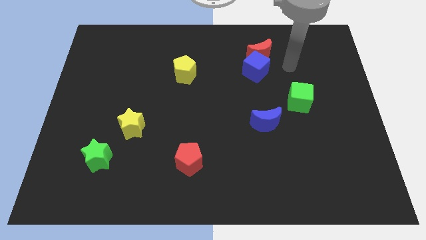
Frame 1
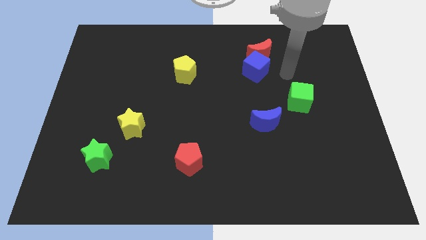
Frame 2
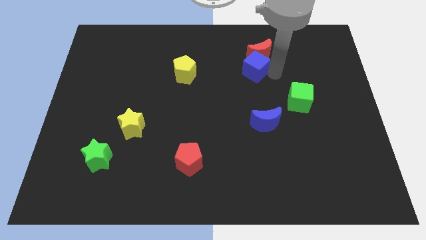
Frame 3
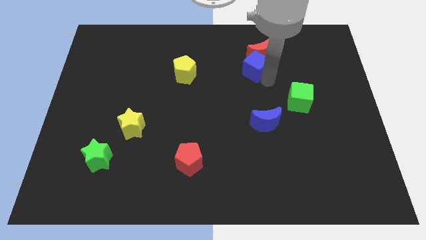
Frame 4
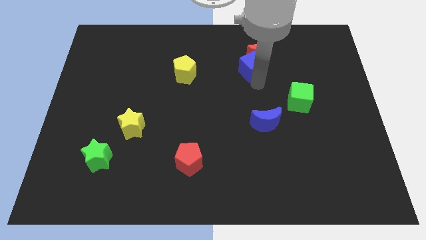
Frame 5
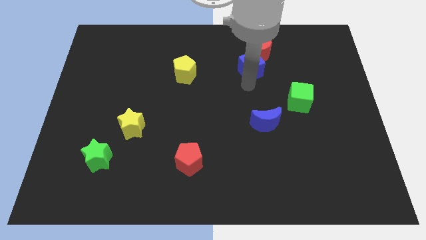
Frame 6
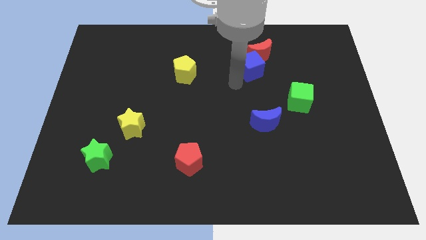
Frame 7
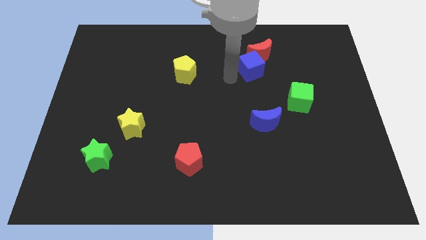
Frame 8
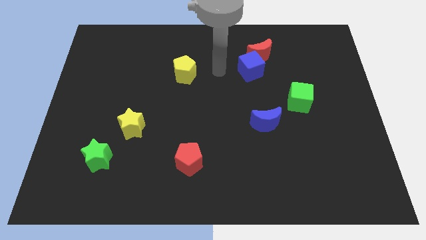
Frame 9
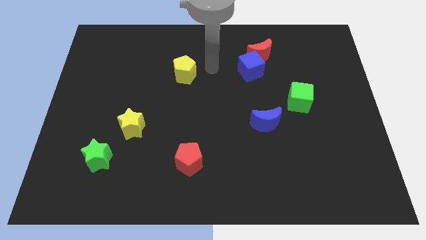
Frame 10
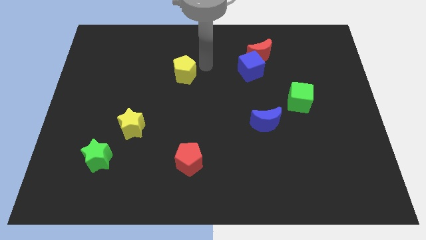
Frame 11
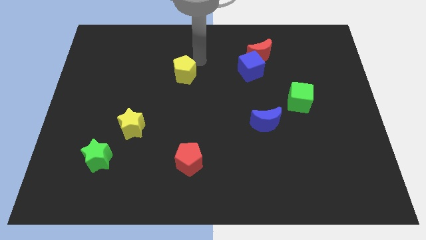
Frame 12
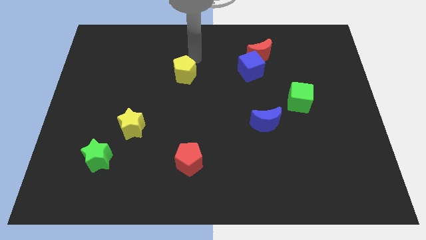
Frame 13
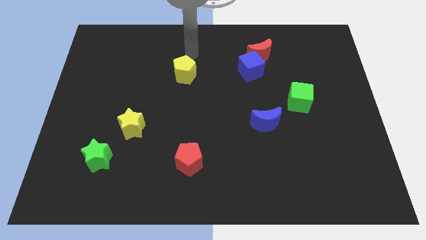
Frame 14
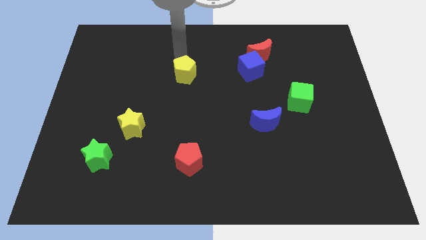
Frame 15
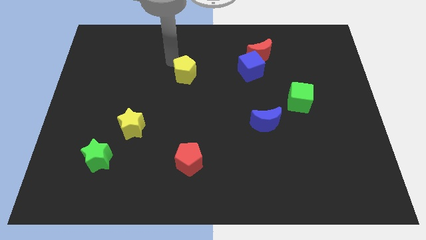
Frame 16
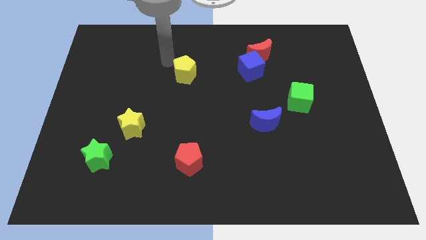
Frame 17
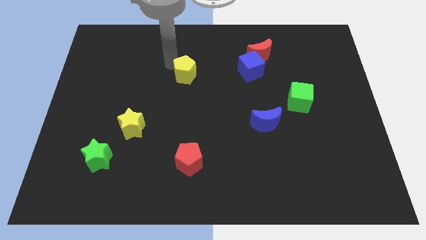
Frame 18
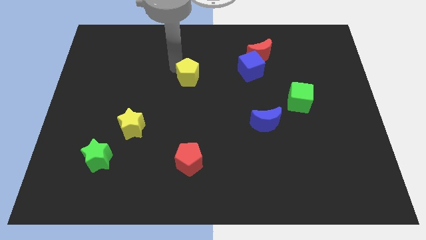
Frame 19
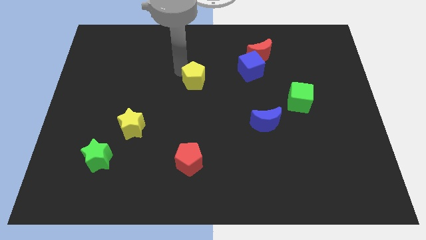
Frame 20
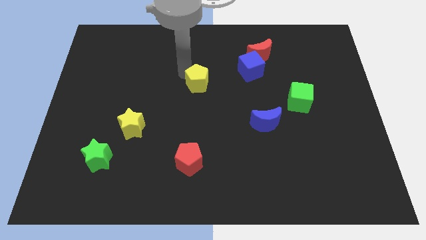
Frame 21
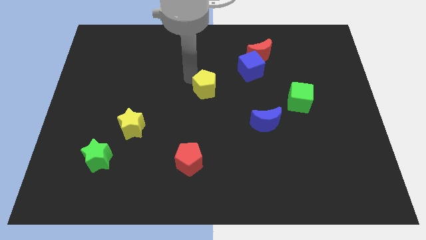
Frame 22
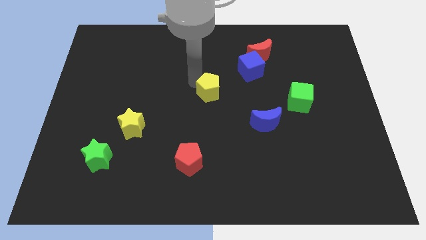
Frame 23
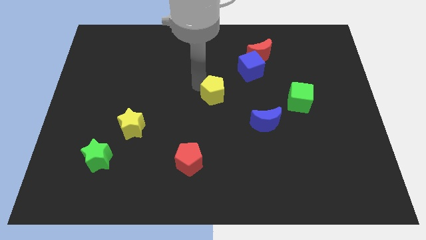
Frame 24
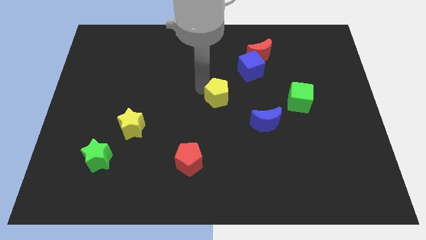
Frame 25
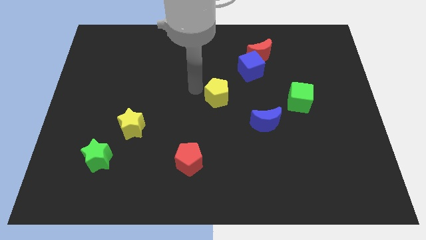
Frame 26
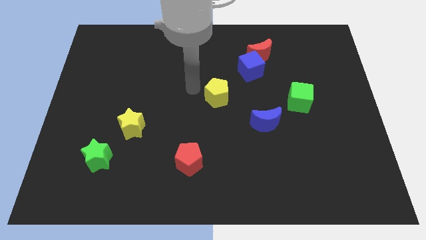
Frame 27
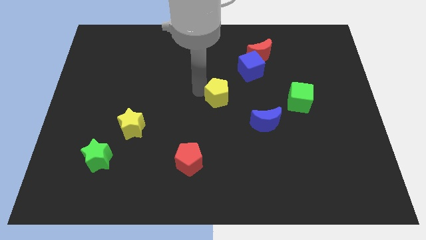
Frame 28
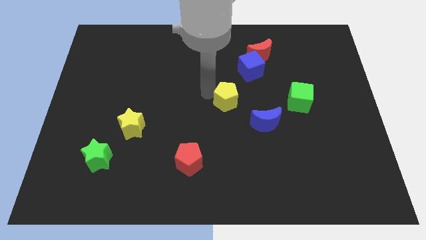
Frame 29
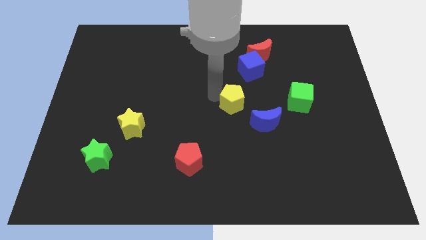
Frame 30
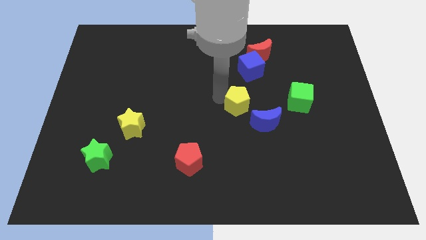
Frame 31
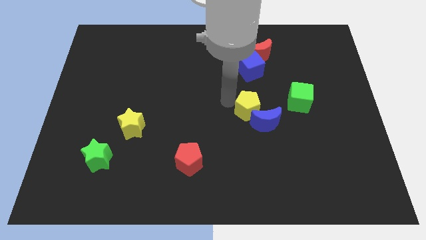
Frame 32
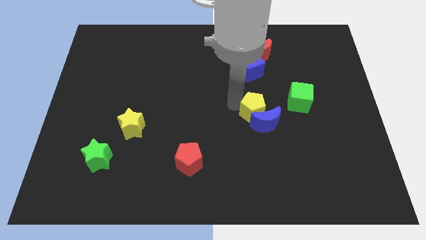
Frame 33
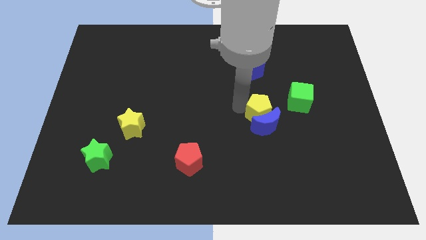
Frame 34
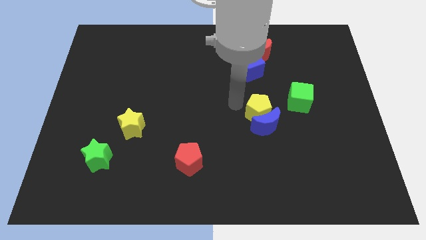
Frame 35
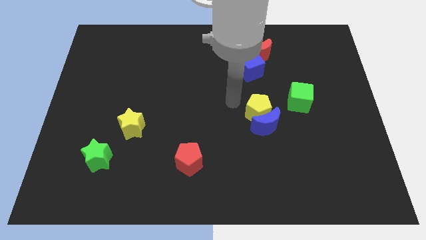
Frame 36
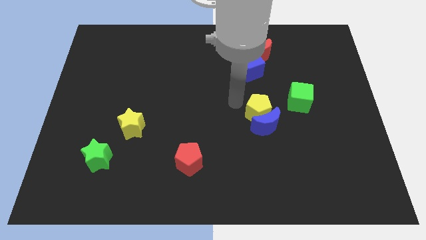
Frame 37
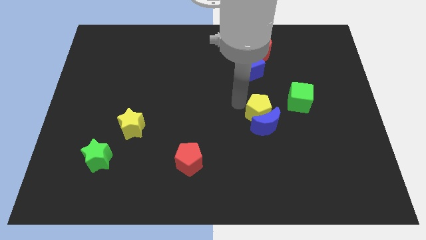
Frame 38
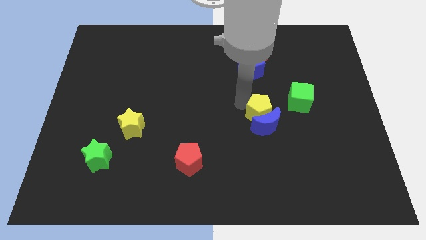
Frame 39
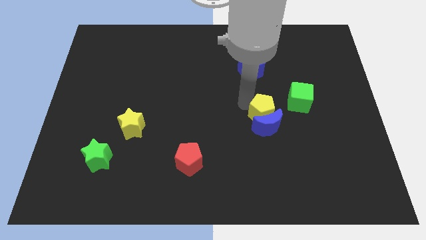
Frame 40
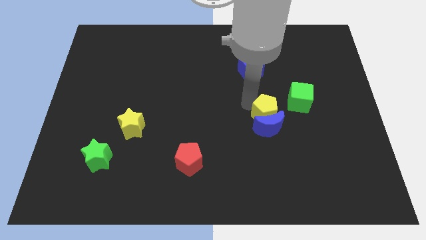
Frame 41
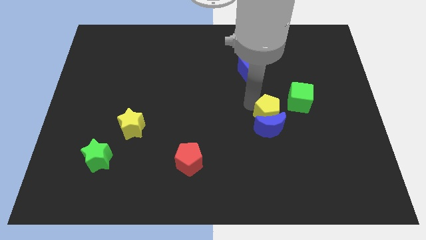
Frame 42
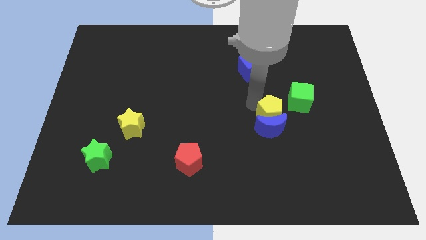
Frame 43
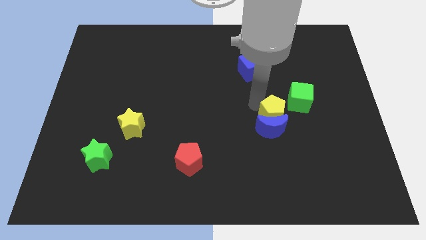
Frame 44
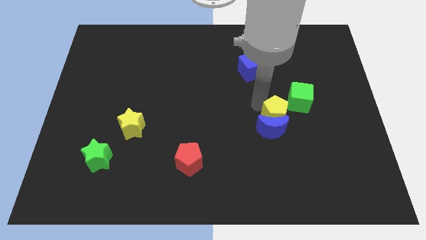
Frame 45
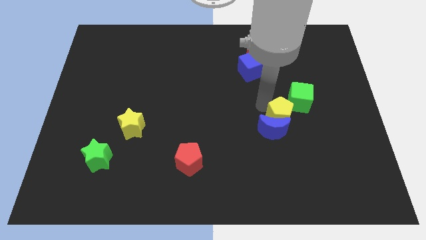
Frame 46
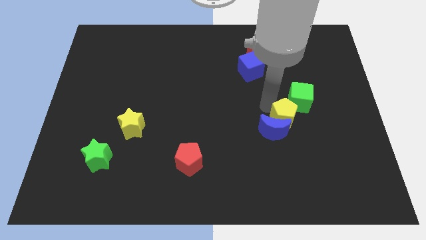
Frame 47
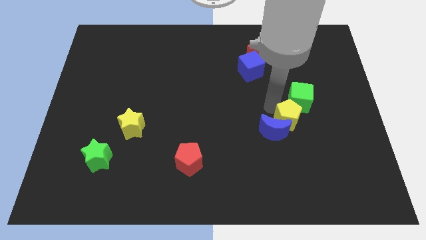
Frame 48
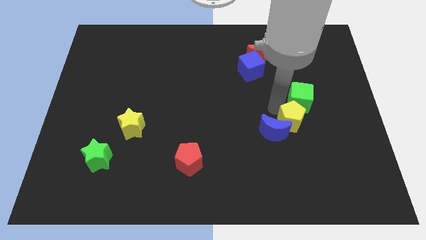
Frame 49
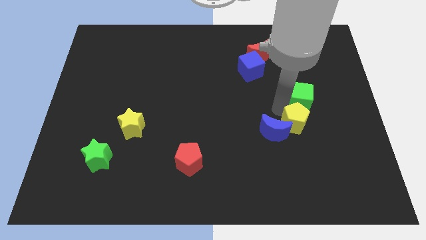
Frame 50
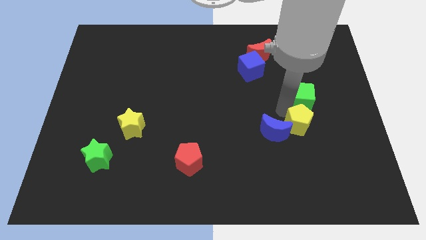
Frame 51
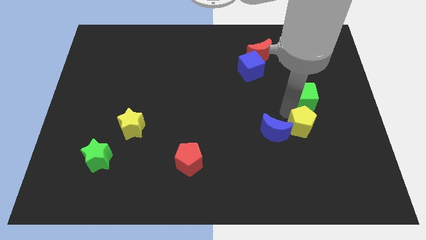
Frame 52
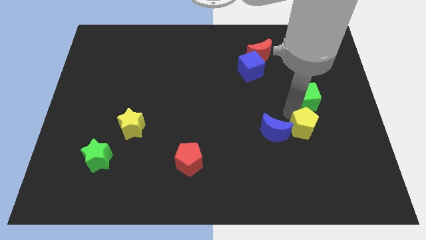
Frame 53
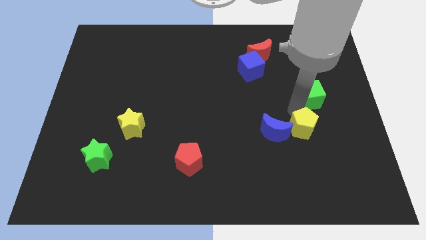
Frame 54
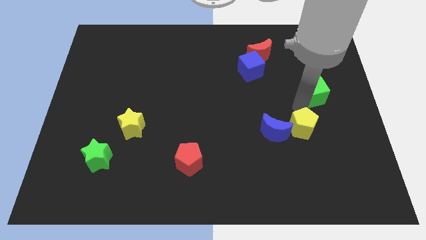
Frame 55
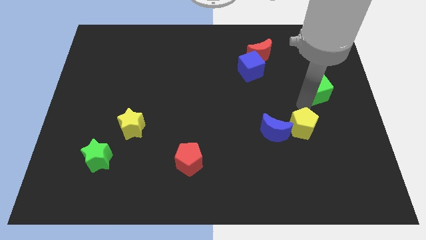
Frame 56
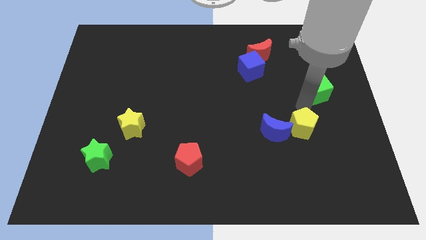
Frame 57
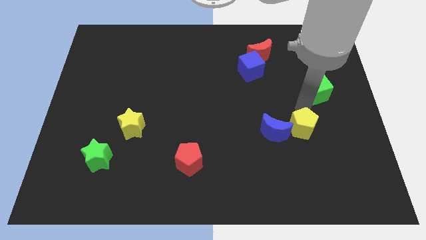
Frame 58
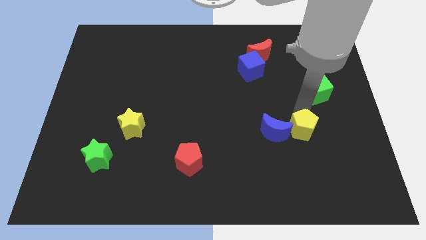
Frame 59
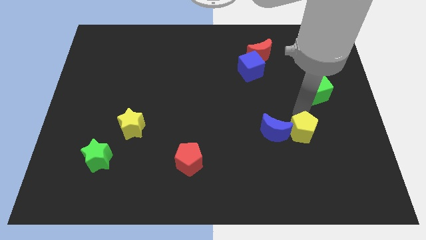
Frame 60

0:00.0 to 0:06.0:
push the yellow pentagon to the bottom right side of the blue moon

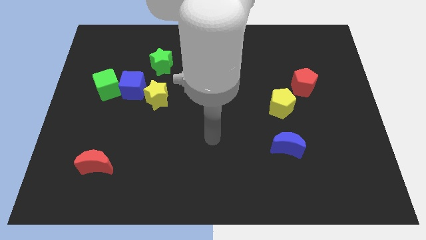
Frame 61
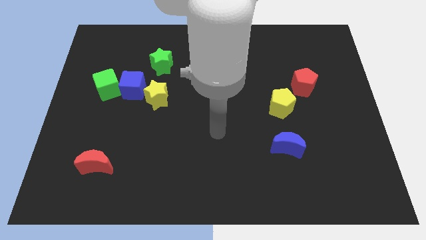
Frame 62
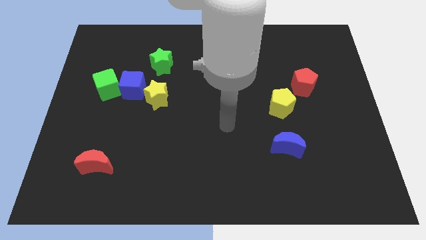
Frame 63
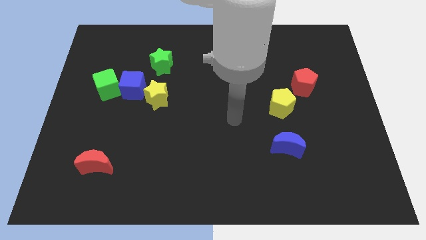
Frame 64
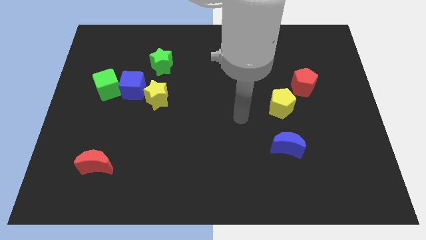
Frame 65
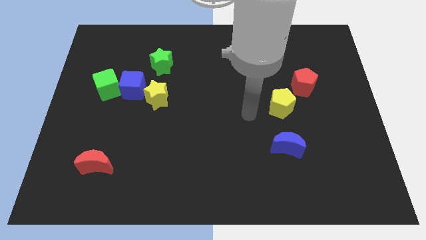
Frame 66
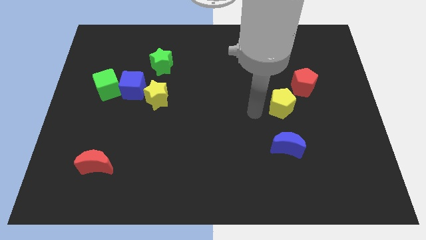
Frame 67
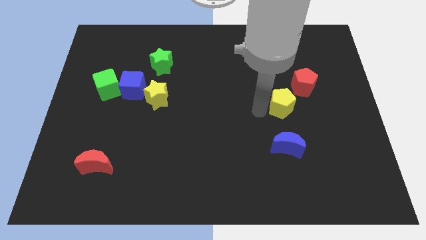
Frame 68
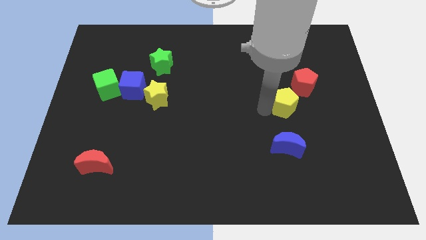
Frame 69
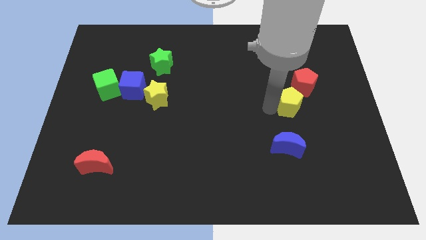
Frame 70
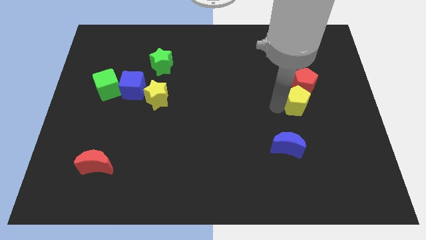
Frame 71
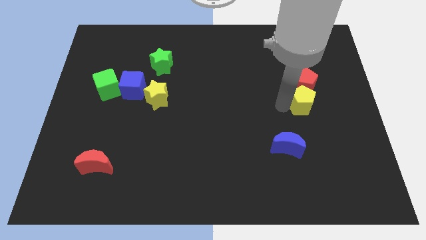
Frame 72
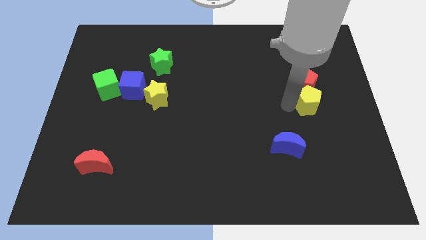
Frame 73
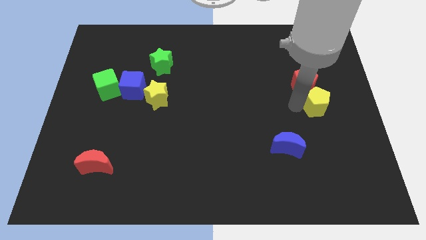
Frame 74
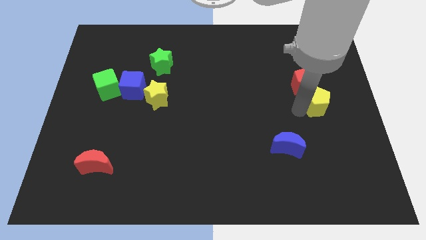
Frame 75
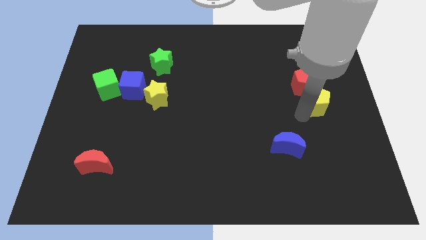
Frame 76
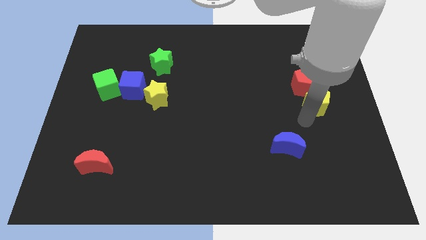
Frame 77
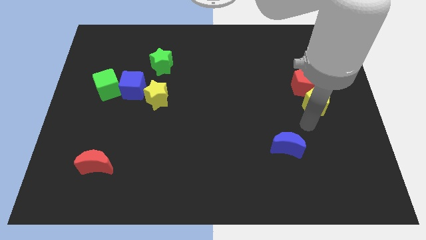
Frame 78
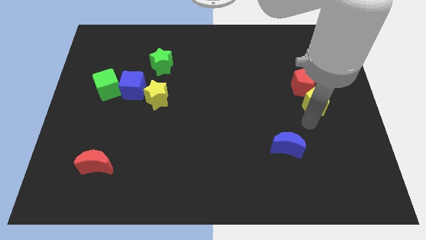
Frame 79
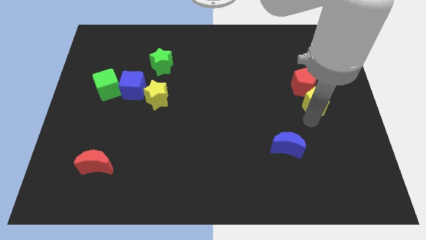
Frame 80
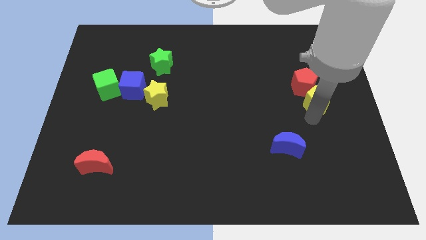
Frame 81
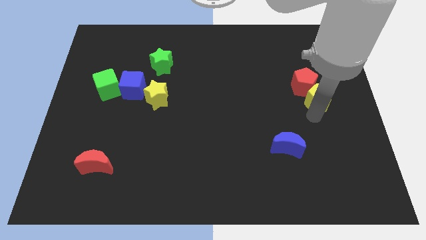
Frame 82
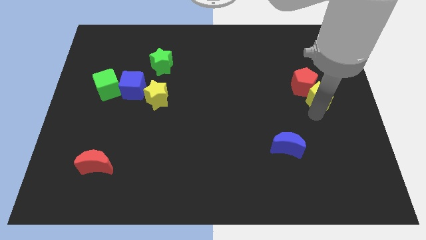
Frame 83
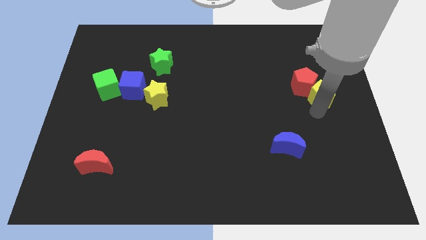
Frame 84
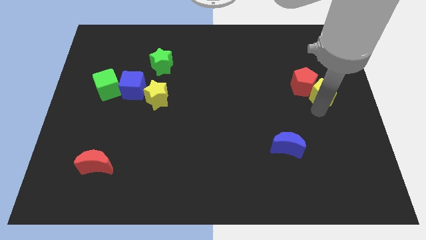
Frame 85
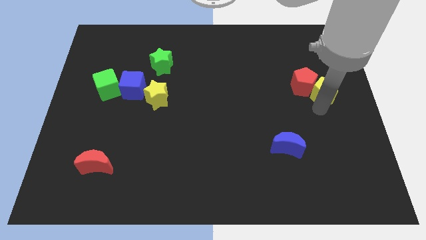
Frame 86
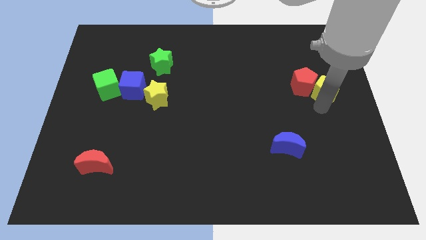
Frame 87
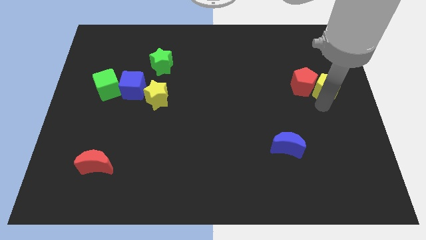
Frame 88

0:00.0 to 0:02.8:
put the yellow pentagon diagonally up and to the right of the red pentagon
